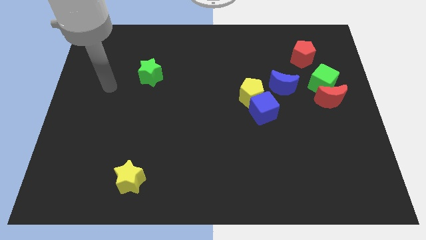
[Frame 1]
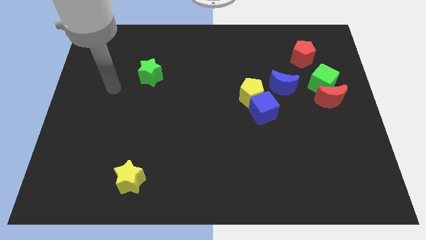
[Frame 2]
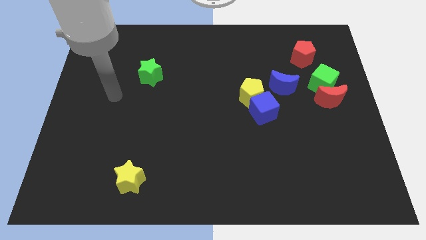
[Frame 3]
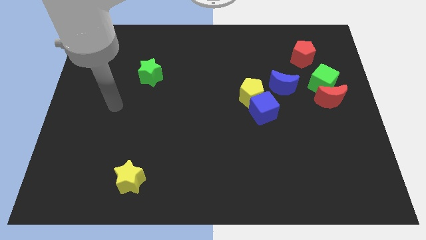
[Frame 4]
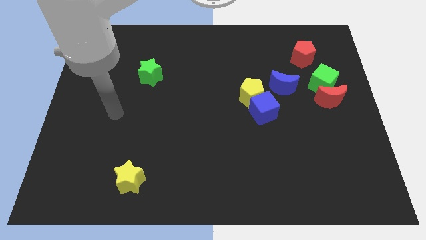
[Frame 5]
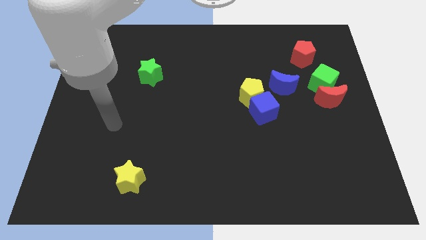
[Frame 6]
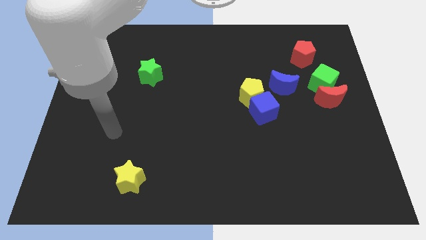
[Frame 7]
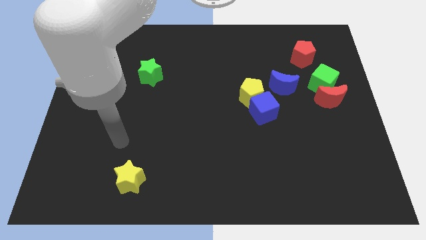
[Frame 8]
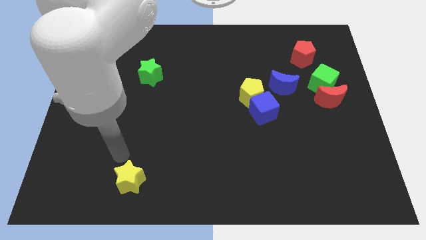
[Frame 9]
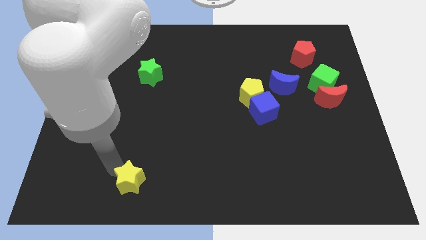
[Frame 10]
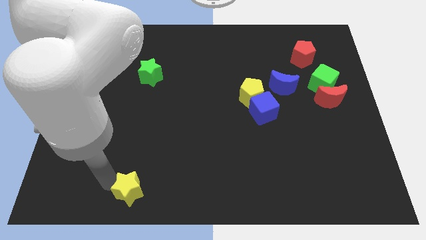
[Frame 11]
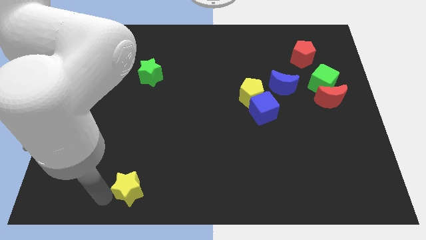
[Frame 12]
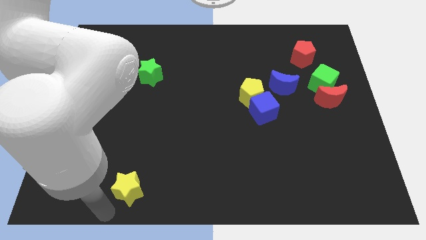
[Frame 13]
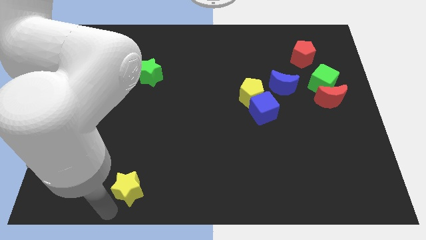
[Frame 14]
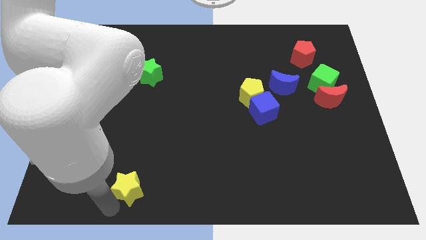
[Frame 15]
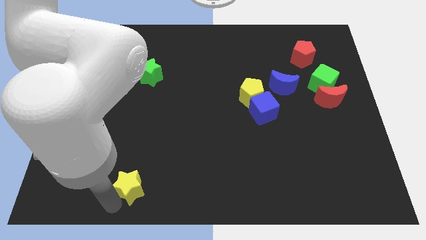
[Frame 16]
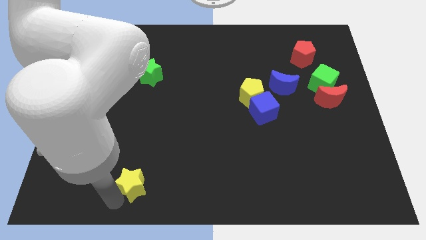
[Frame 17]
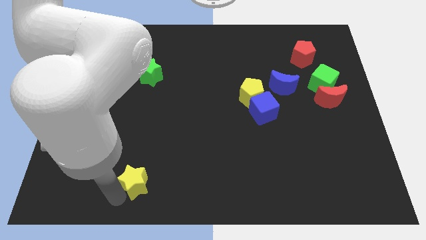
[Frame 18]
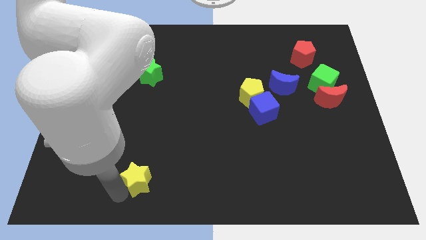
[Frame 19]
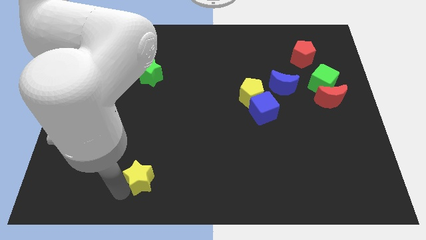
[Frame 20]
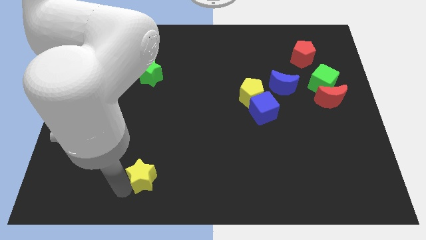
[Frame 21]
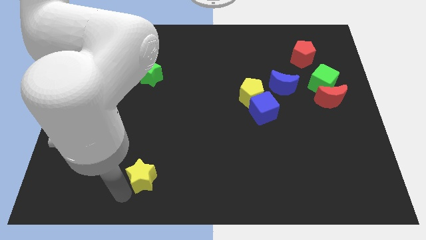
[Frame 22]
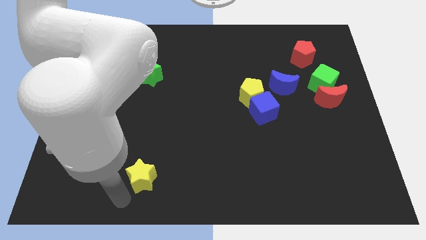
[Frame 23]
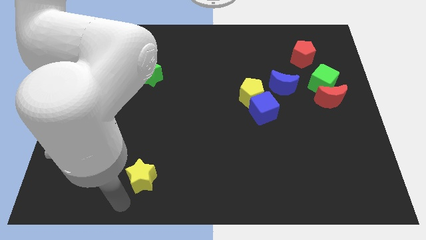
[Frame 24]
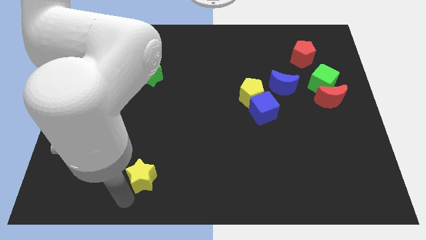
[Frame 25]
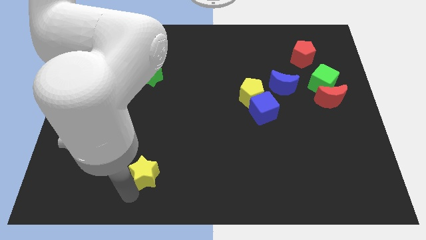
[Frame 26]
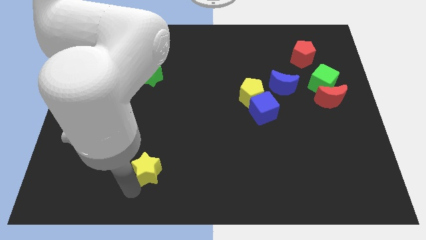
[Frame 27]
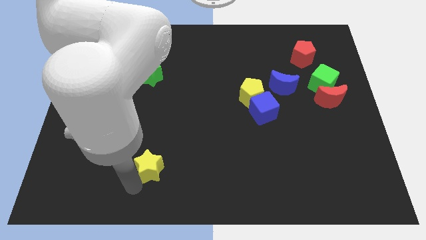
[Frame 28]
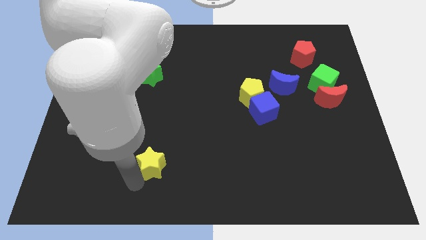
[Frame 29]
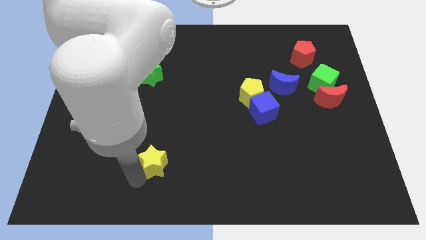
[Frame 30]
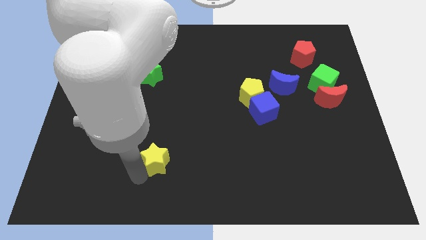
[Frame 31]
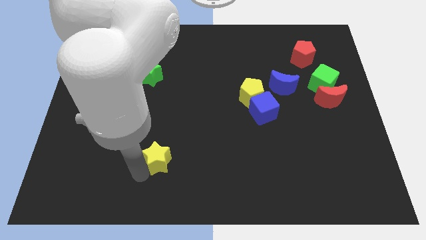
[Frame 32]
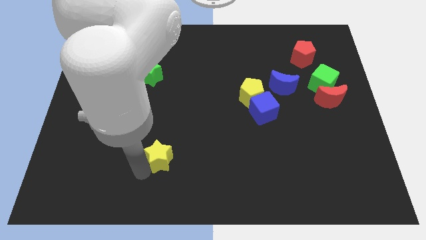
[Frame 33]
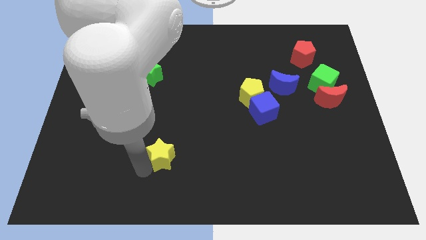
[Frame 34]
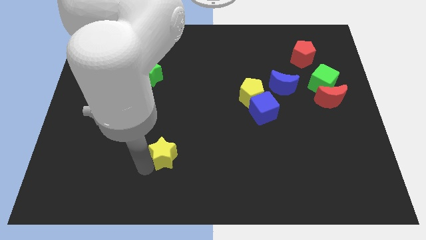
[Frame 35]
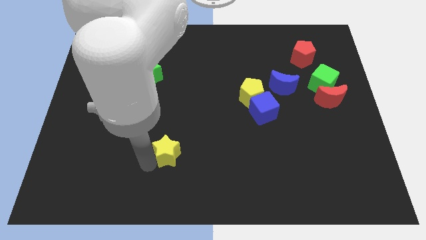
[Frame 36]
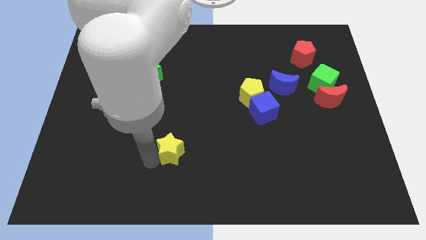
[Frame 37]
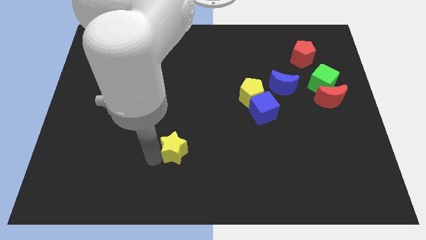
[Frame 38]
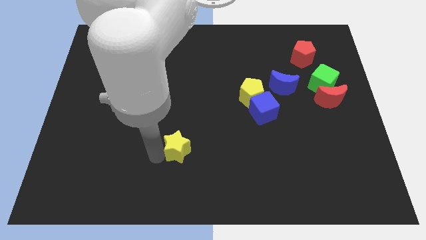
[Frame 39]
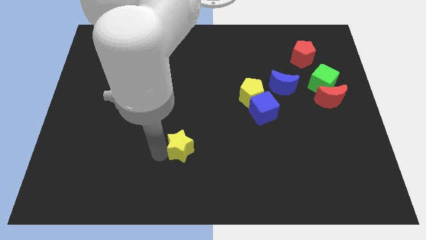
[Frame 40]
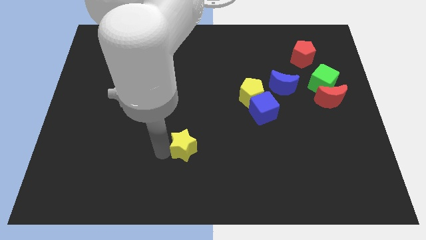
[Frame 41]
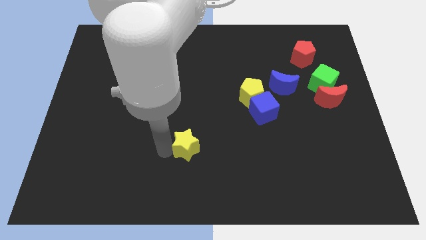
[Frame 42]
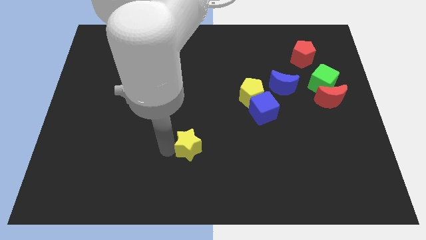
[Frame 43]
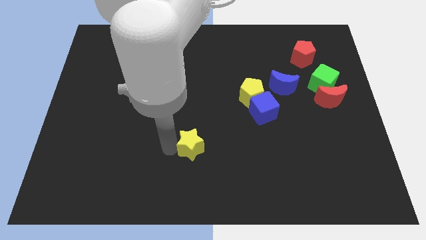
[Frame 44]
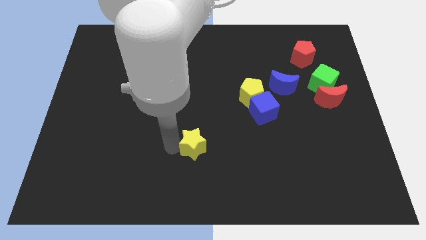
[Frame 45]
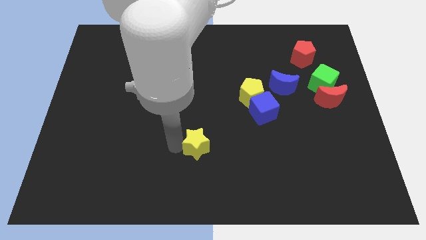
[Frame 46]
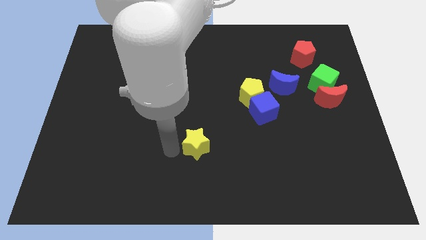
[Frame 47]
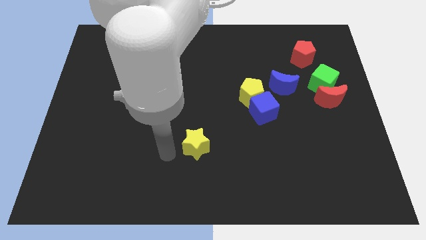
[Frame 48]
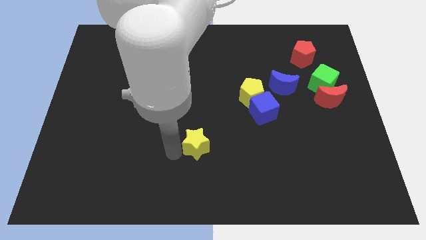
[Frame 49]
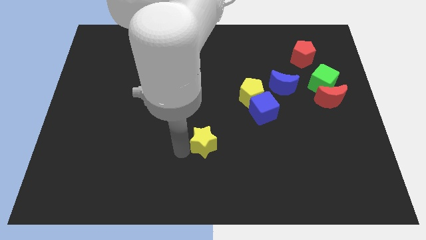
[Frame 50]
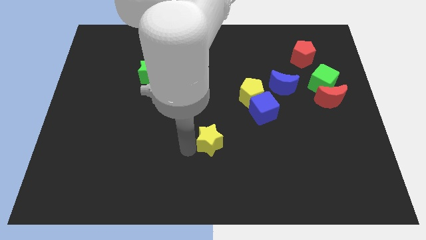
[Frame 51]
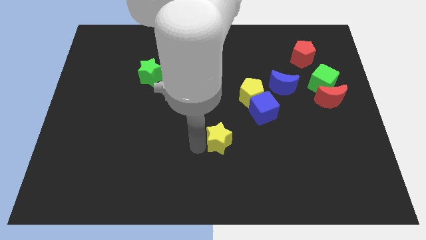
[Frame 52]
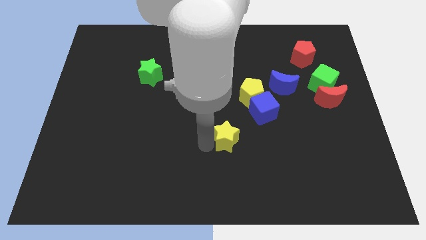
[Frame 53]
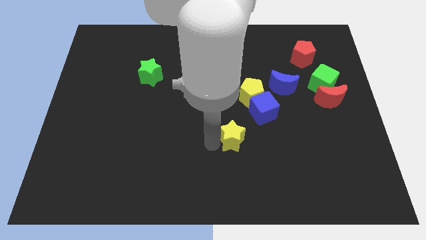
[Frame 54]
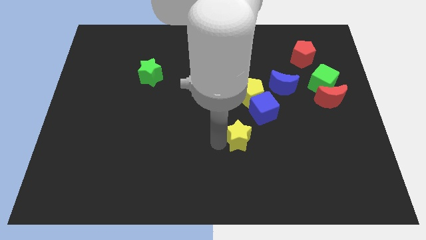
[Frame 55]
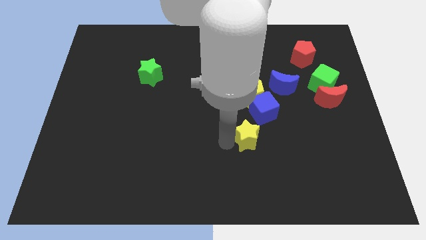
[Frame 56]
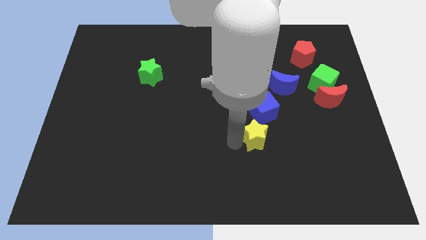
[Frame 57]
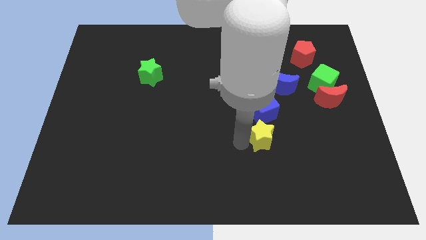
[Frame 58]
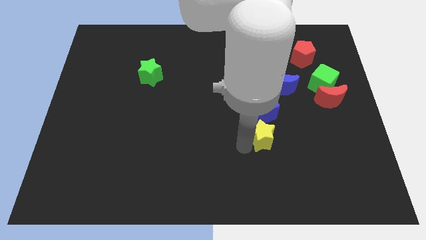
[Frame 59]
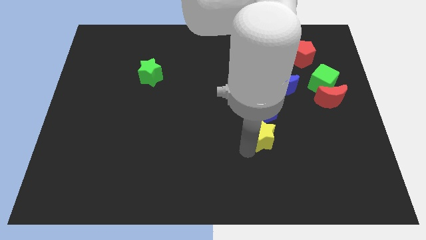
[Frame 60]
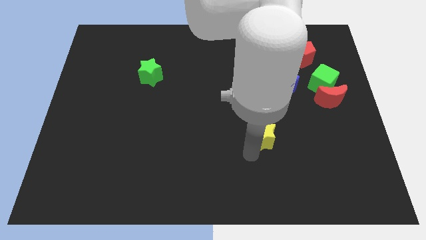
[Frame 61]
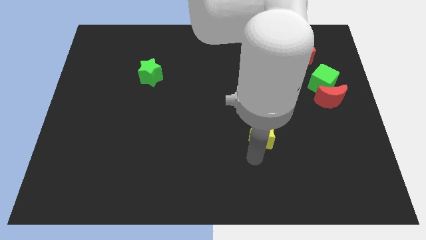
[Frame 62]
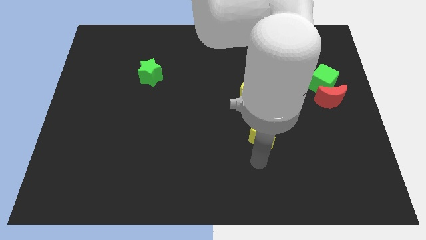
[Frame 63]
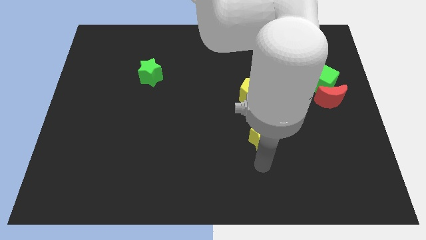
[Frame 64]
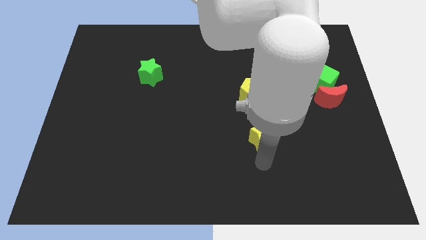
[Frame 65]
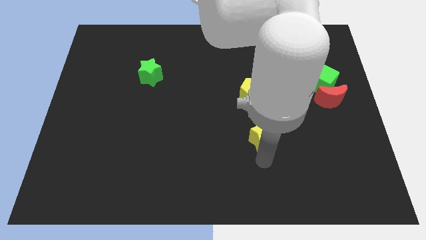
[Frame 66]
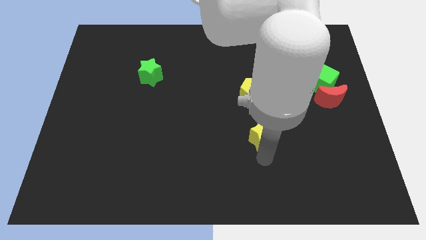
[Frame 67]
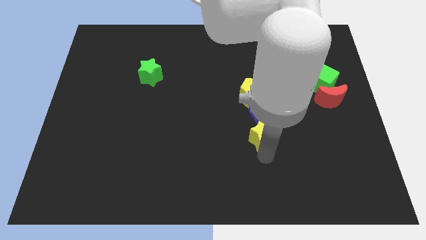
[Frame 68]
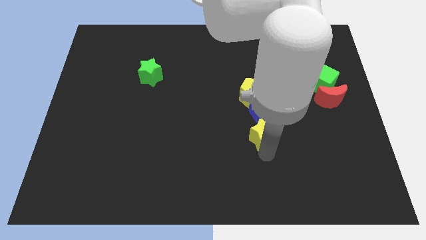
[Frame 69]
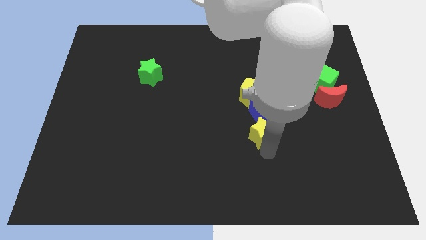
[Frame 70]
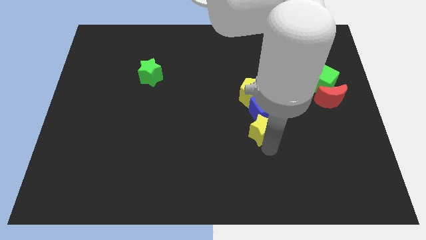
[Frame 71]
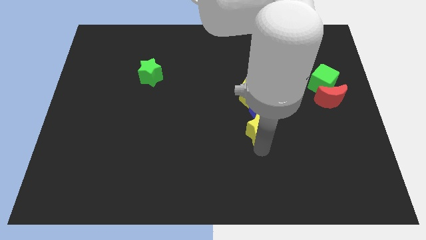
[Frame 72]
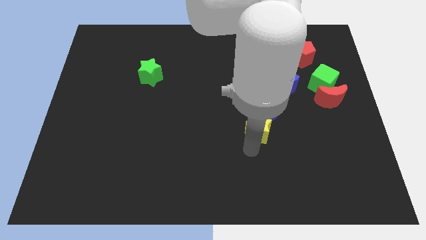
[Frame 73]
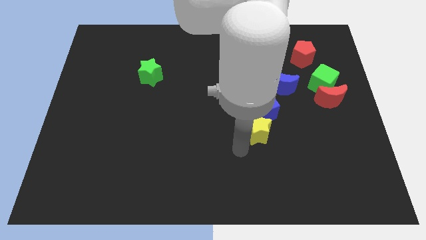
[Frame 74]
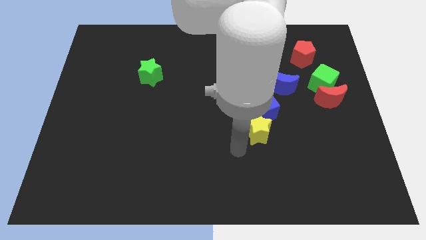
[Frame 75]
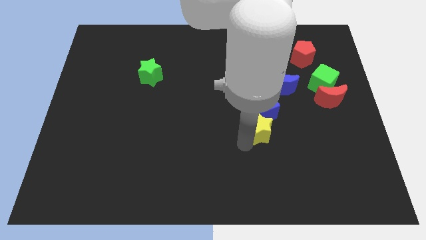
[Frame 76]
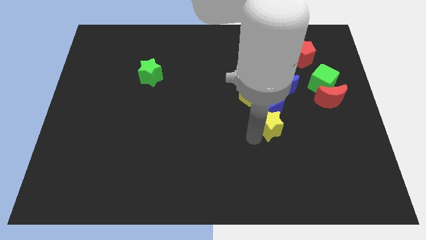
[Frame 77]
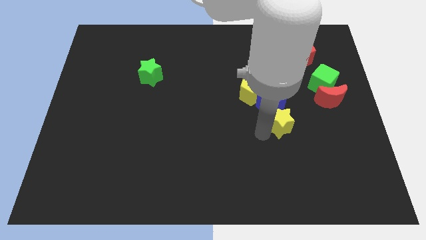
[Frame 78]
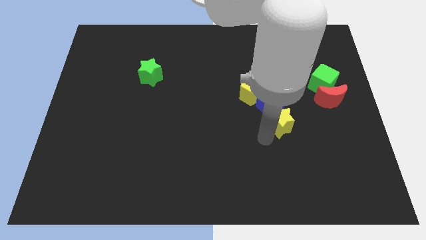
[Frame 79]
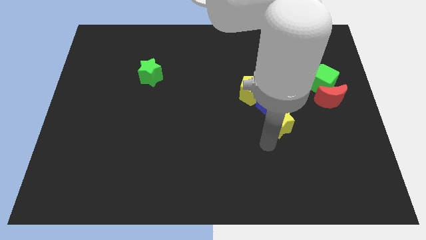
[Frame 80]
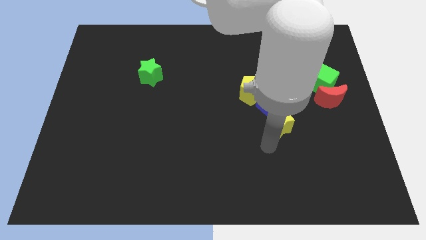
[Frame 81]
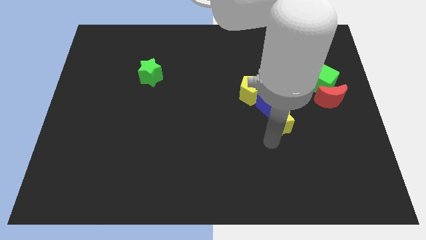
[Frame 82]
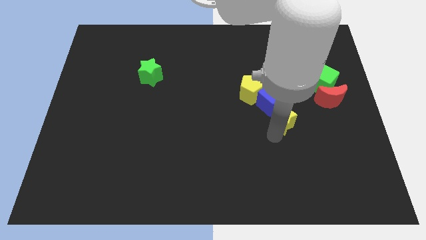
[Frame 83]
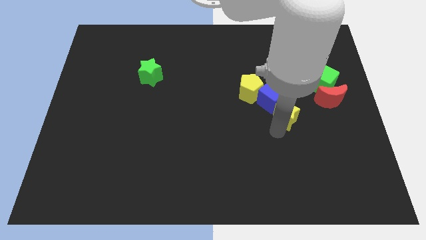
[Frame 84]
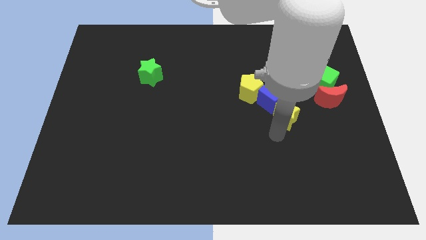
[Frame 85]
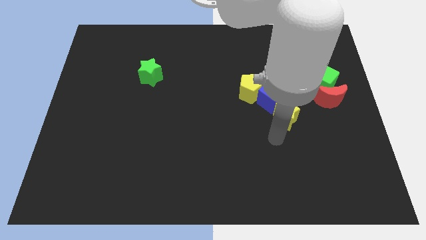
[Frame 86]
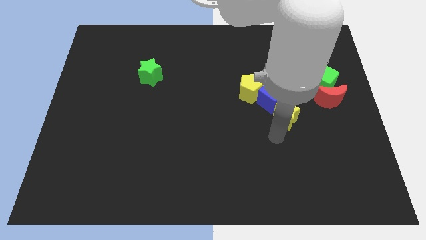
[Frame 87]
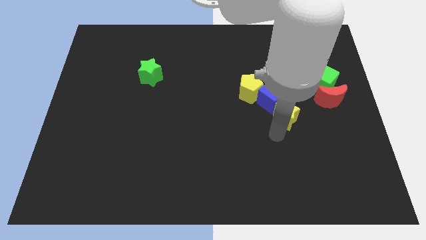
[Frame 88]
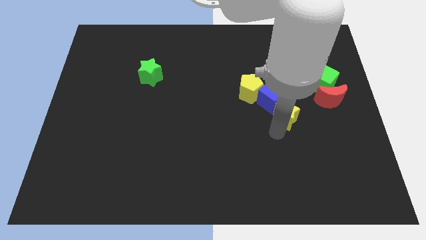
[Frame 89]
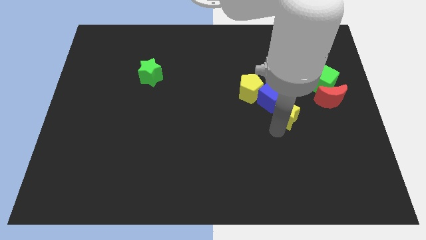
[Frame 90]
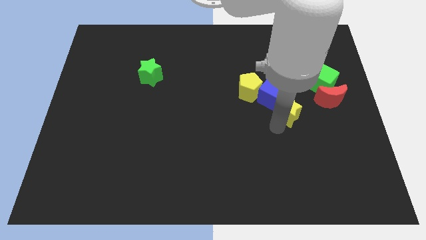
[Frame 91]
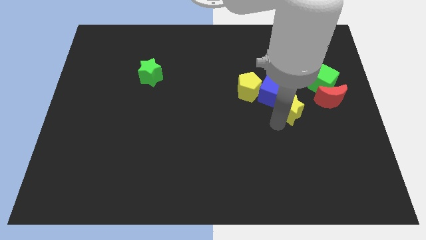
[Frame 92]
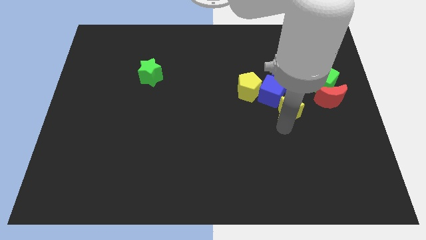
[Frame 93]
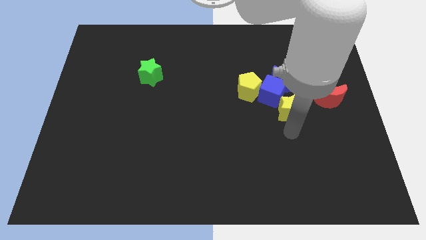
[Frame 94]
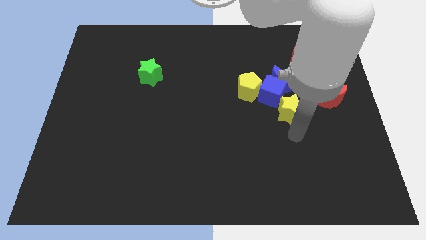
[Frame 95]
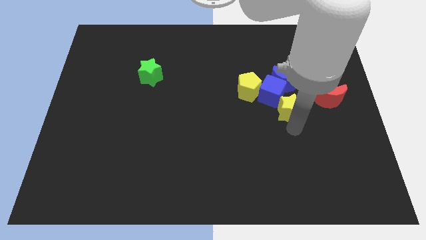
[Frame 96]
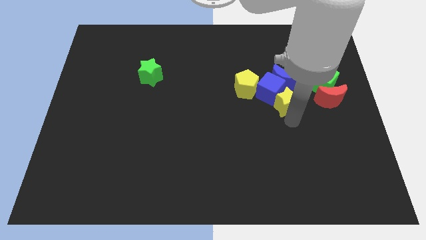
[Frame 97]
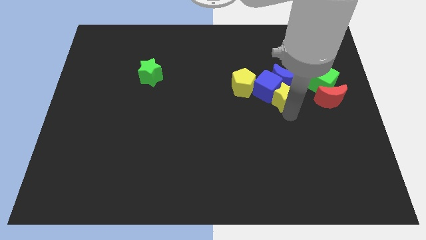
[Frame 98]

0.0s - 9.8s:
move the yellow star next to the blue moon
